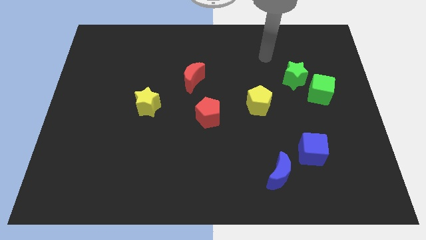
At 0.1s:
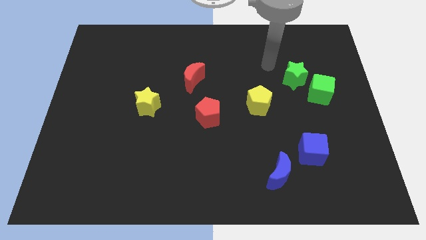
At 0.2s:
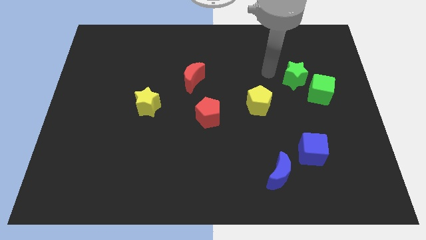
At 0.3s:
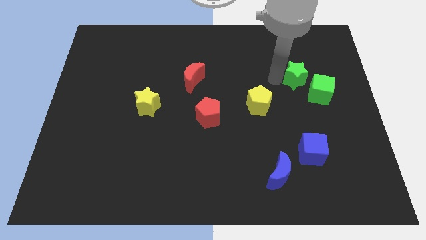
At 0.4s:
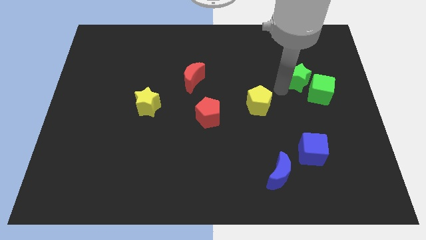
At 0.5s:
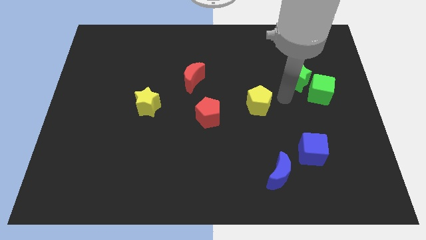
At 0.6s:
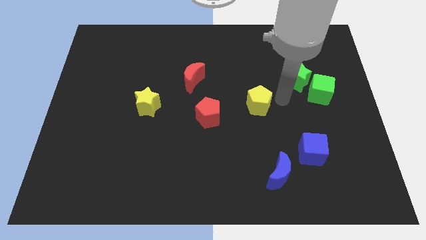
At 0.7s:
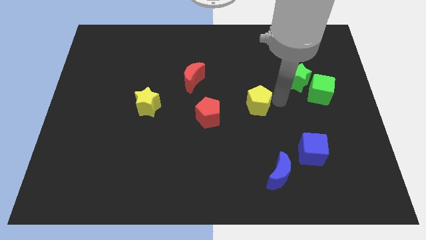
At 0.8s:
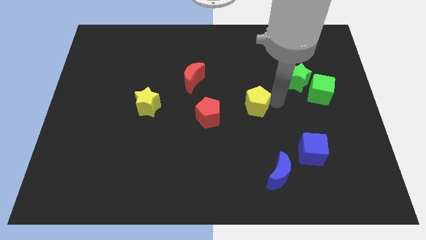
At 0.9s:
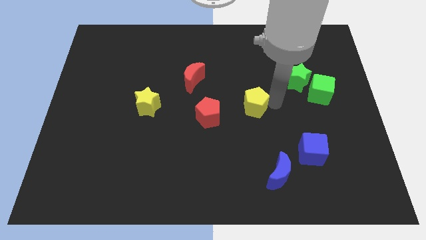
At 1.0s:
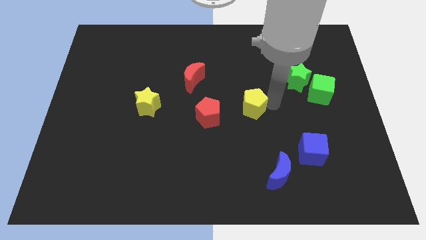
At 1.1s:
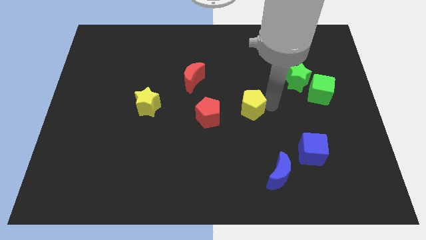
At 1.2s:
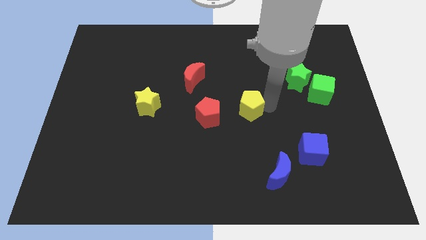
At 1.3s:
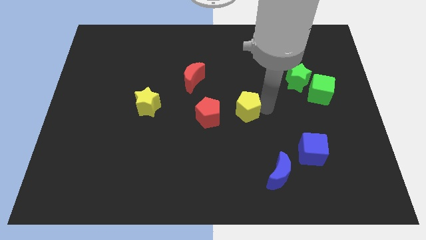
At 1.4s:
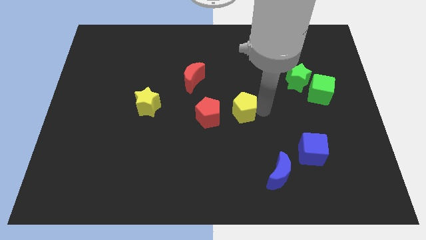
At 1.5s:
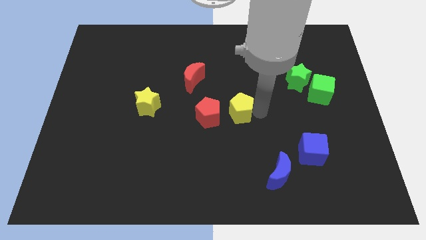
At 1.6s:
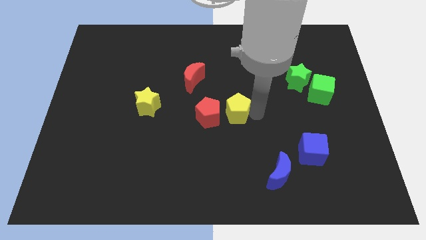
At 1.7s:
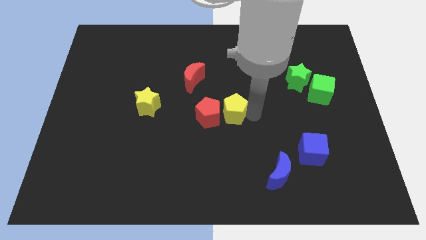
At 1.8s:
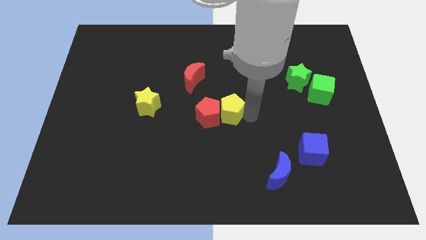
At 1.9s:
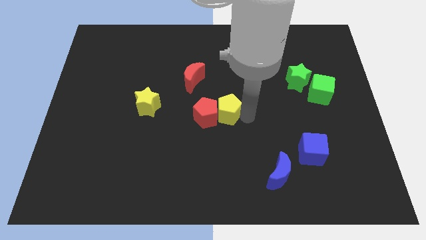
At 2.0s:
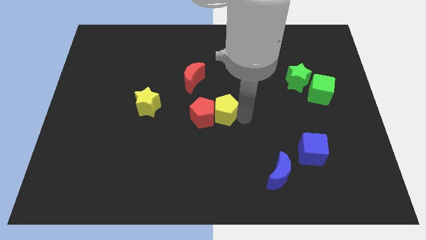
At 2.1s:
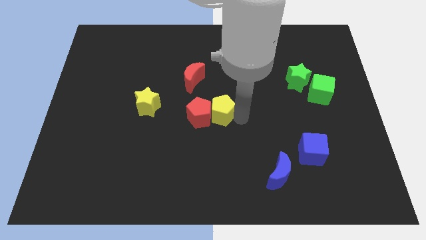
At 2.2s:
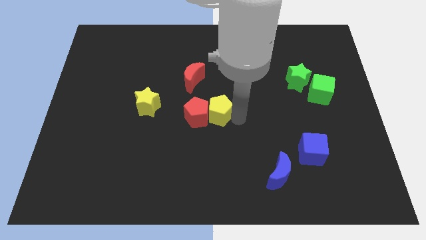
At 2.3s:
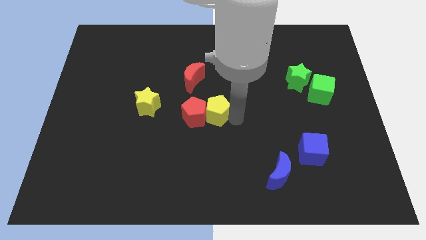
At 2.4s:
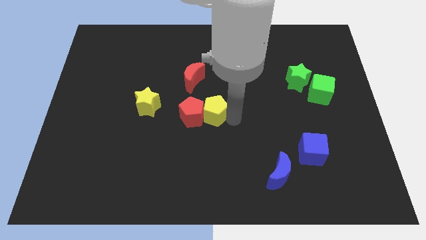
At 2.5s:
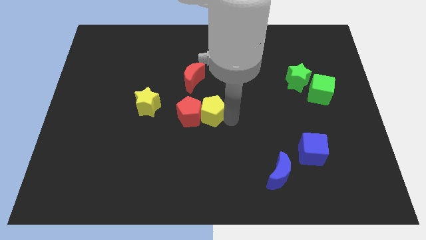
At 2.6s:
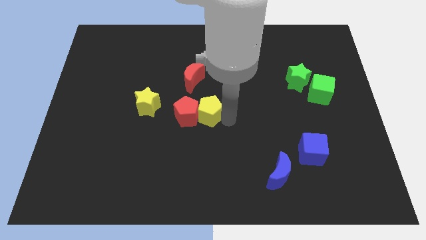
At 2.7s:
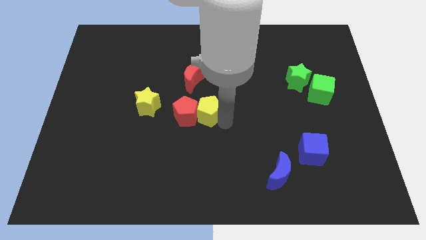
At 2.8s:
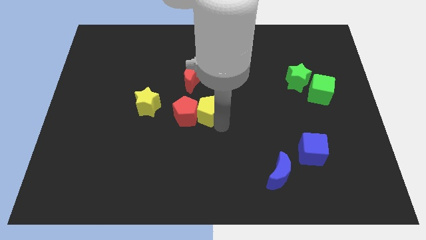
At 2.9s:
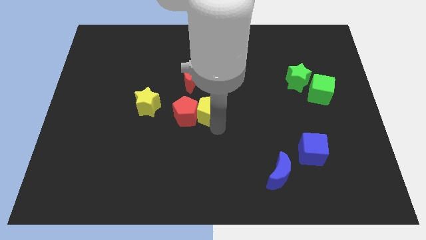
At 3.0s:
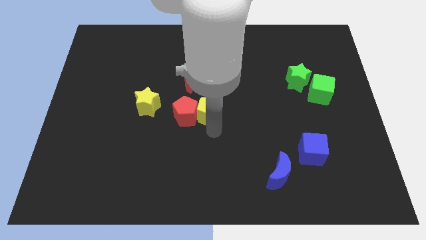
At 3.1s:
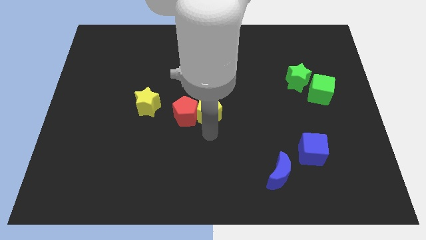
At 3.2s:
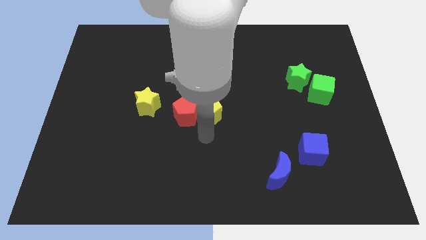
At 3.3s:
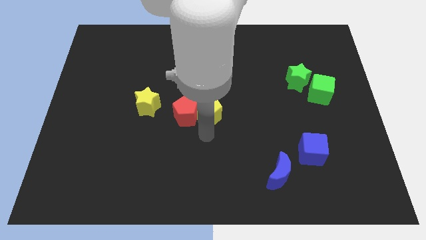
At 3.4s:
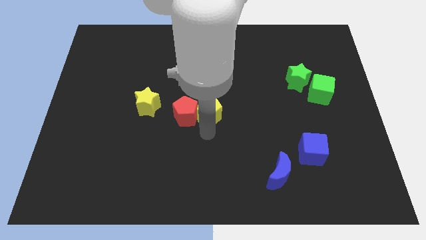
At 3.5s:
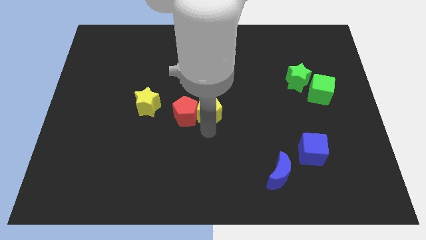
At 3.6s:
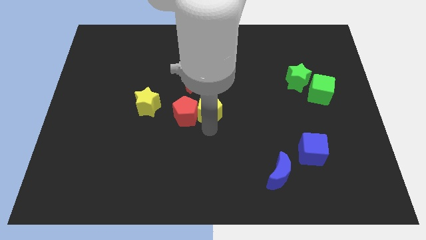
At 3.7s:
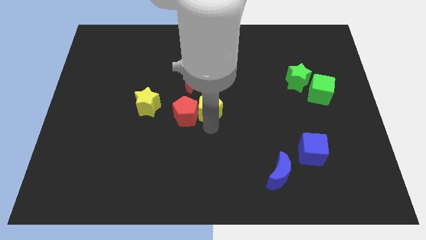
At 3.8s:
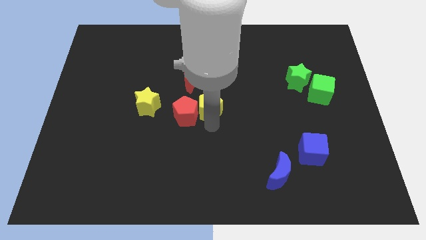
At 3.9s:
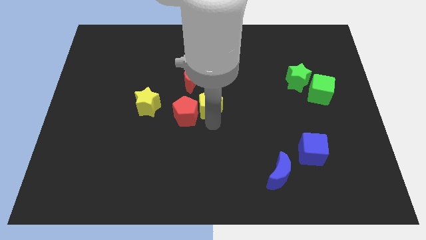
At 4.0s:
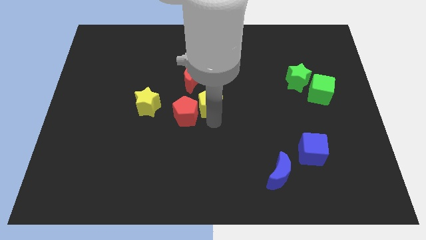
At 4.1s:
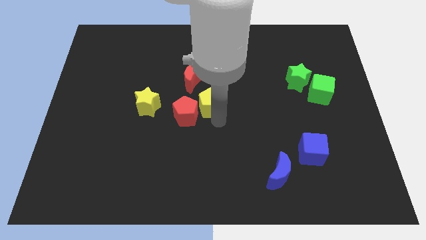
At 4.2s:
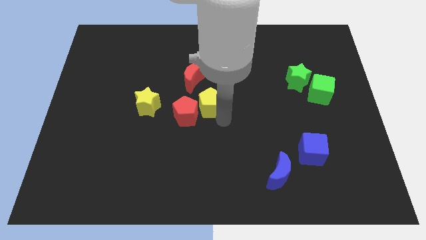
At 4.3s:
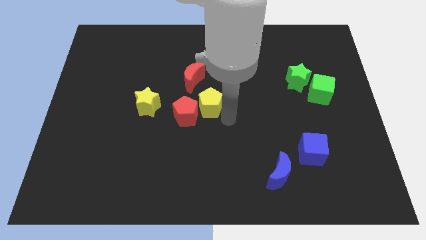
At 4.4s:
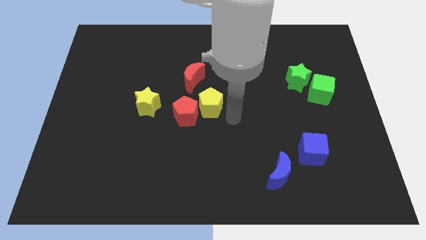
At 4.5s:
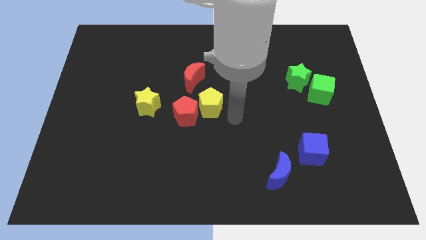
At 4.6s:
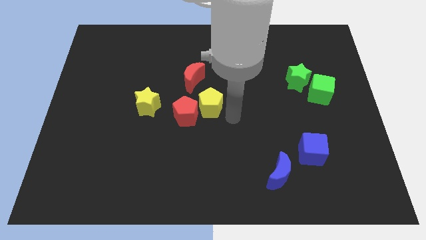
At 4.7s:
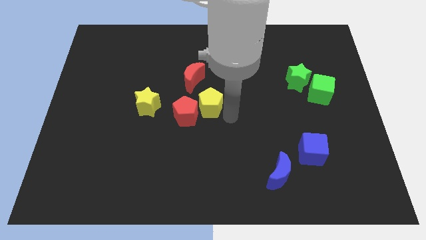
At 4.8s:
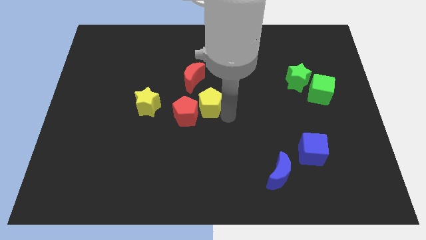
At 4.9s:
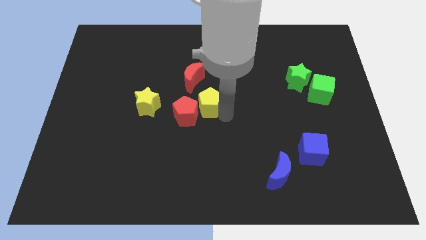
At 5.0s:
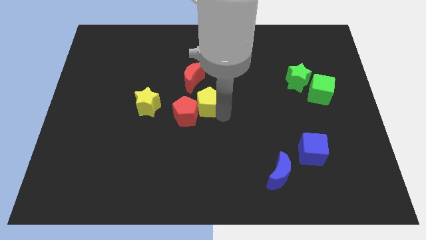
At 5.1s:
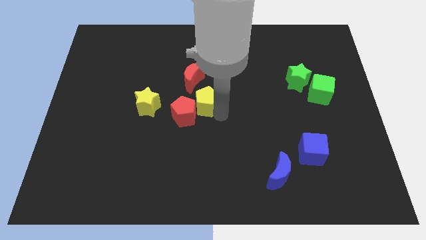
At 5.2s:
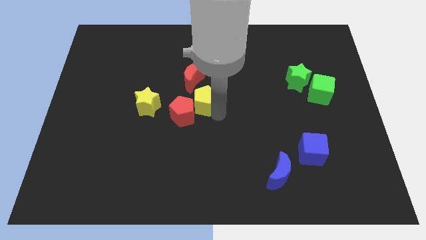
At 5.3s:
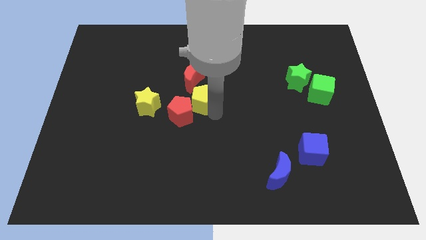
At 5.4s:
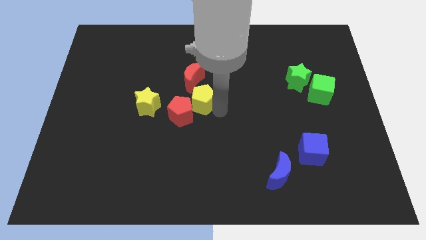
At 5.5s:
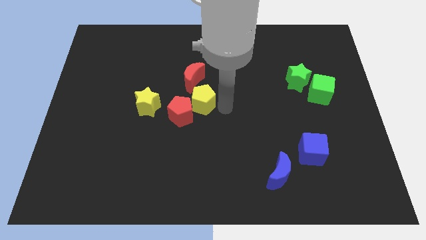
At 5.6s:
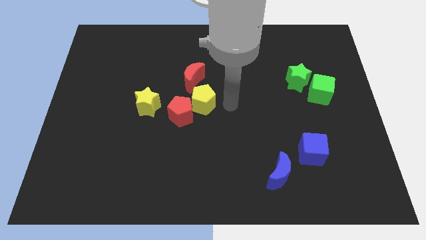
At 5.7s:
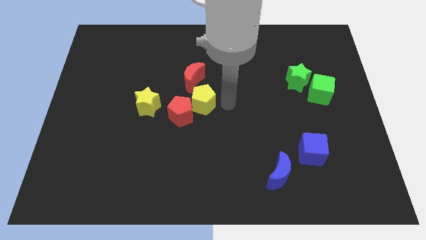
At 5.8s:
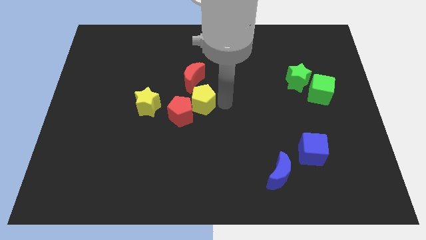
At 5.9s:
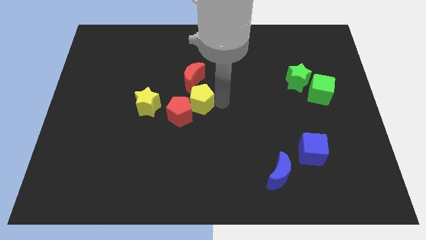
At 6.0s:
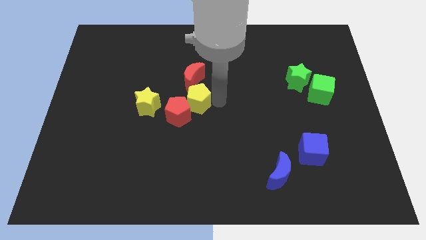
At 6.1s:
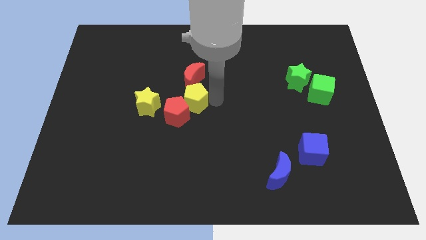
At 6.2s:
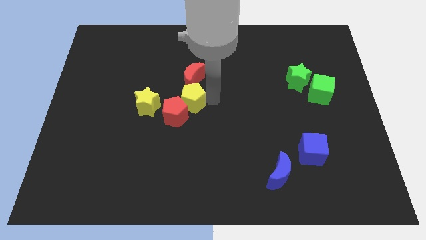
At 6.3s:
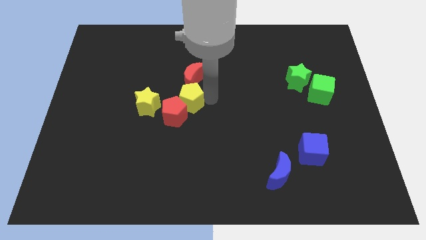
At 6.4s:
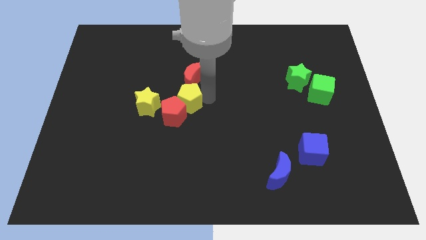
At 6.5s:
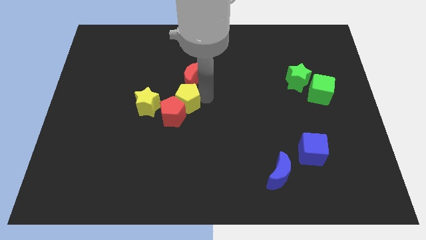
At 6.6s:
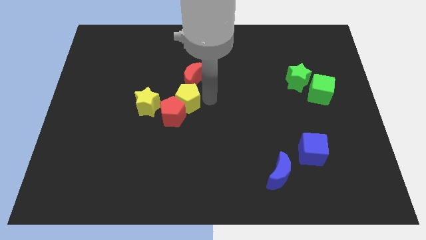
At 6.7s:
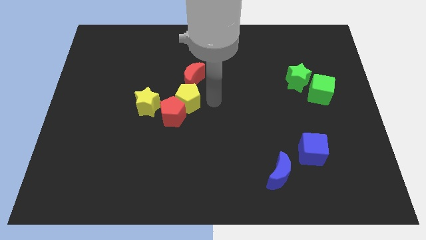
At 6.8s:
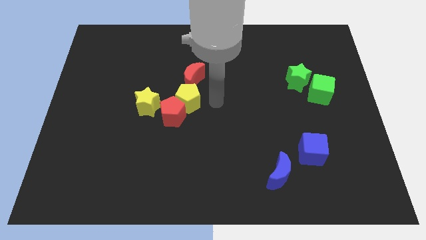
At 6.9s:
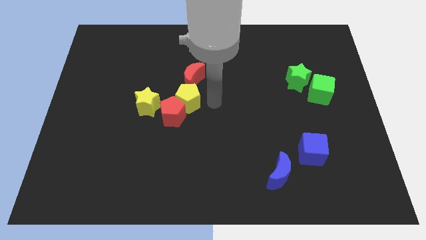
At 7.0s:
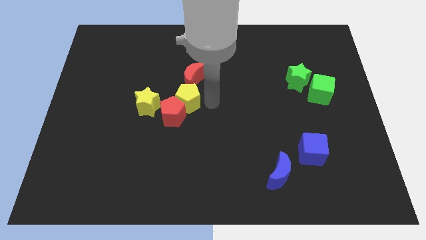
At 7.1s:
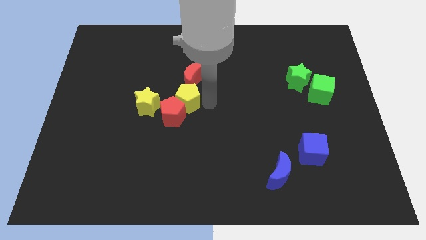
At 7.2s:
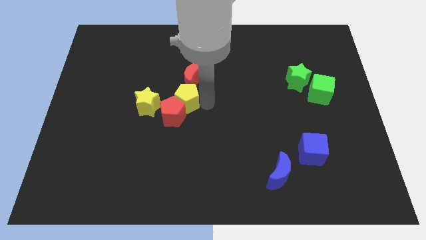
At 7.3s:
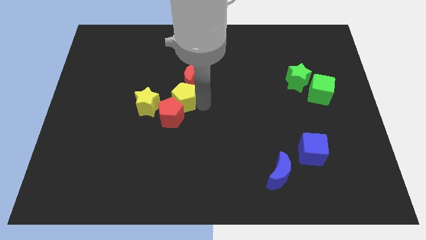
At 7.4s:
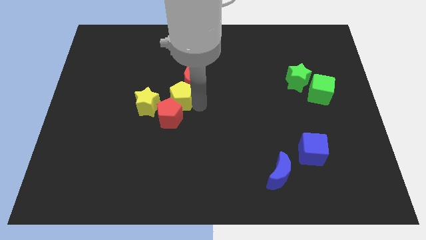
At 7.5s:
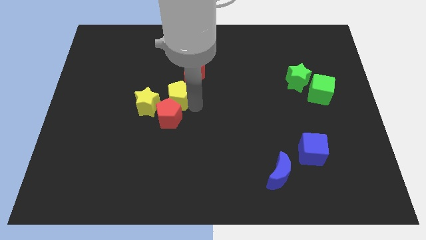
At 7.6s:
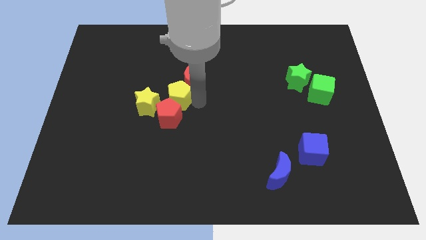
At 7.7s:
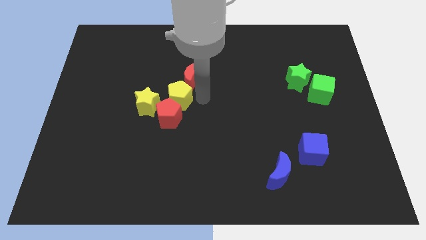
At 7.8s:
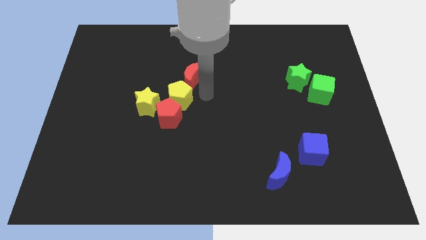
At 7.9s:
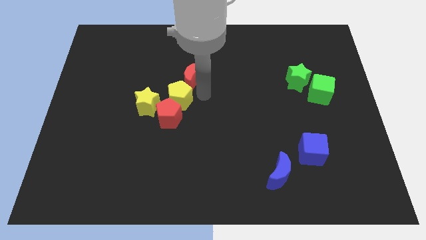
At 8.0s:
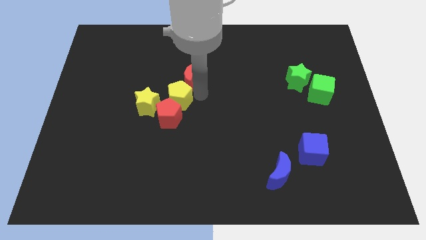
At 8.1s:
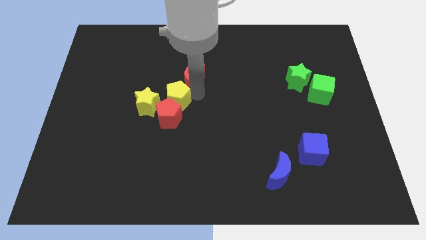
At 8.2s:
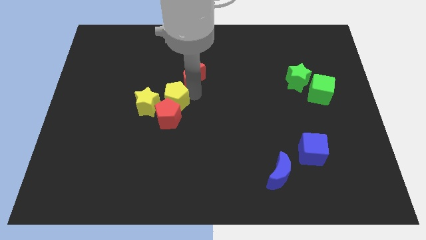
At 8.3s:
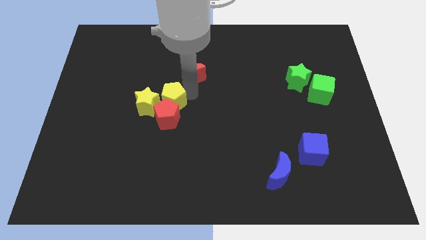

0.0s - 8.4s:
move the yellow pentagon close to the yellow star
